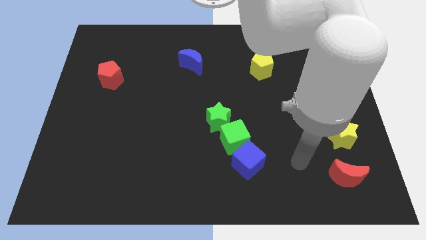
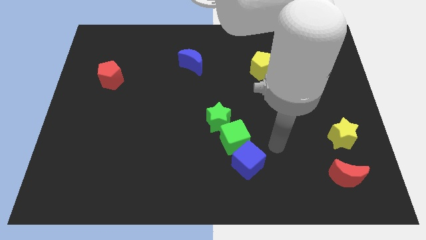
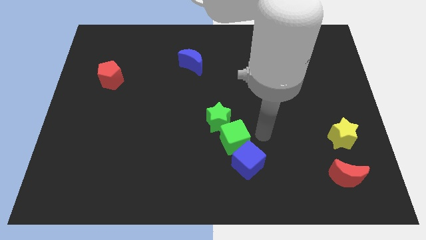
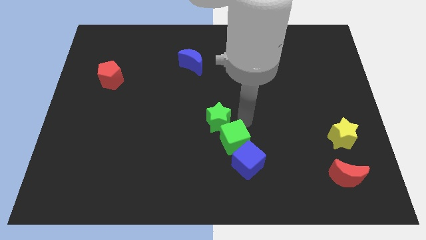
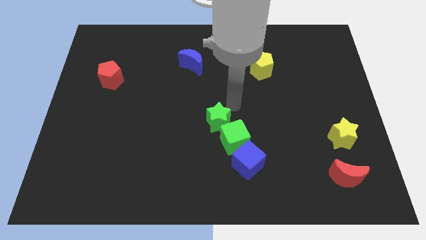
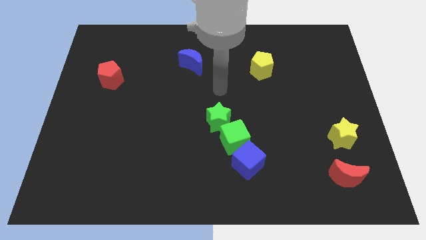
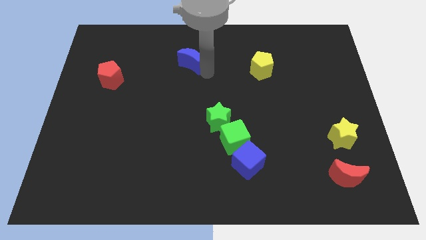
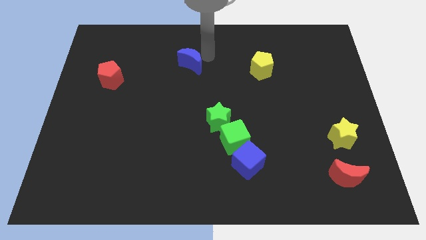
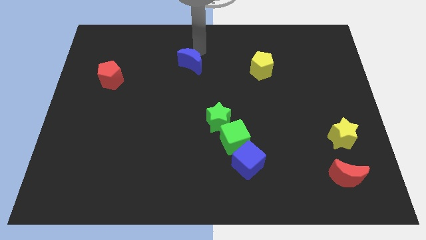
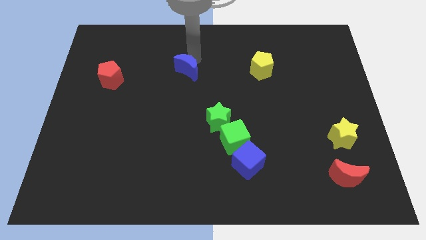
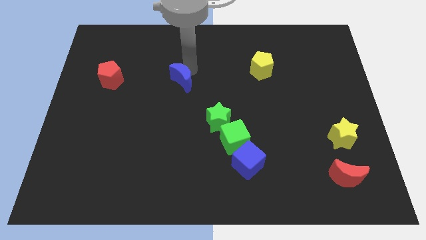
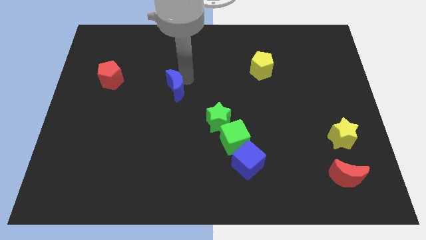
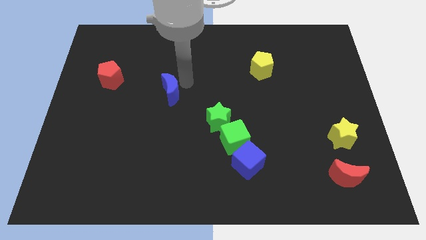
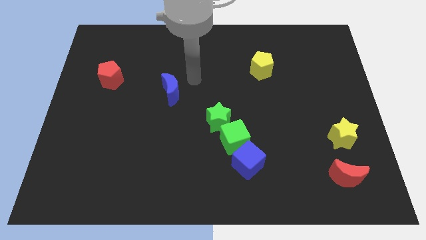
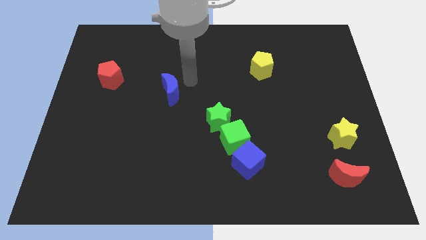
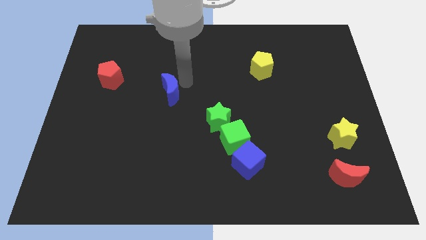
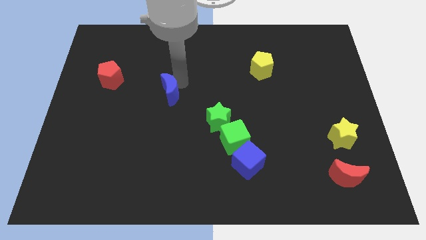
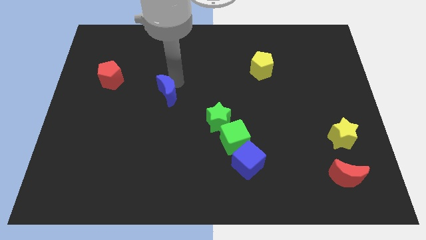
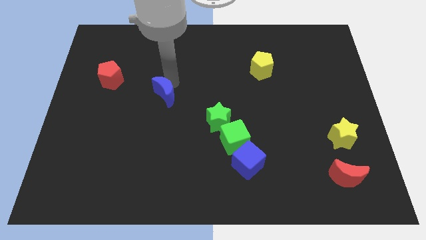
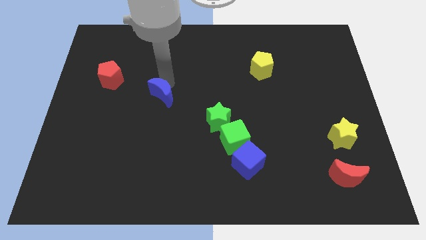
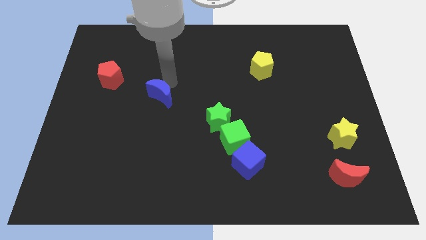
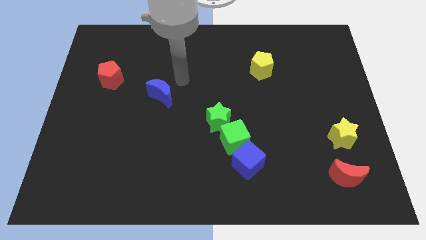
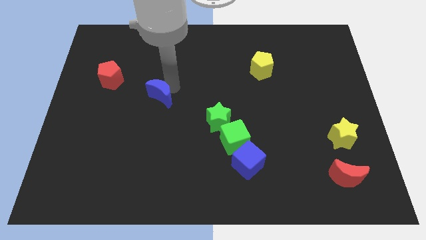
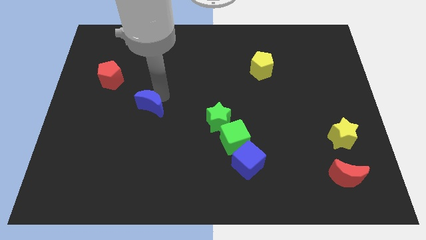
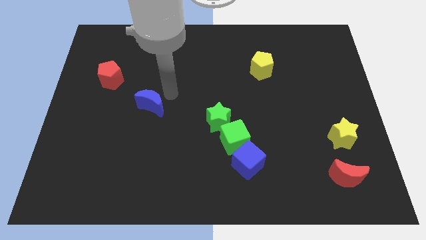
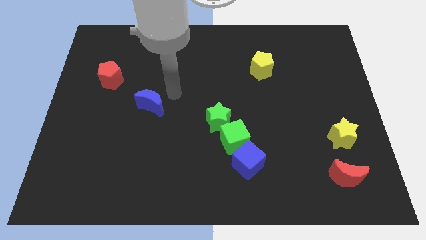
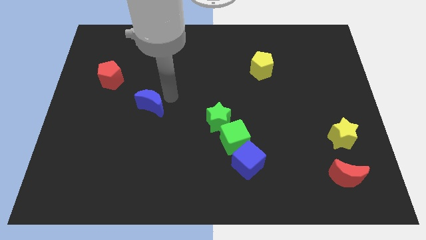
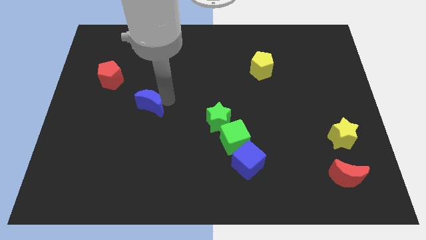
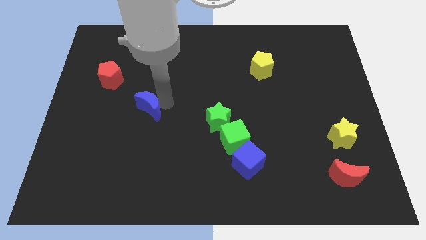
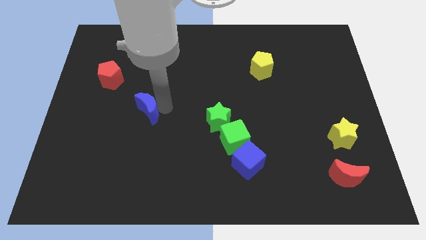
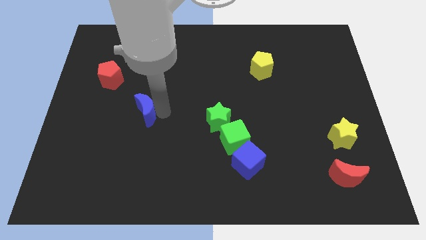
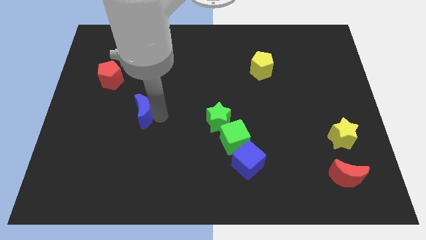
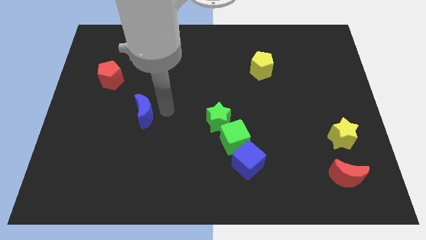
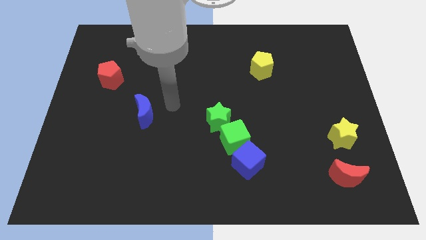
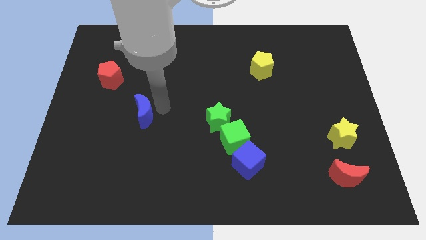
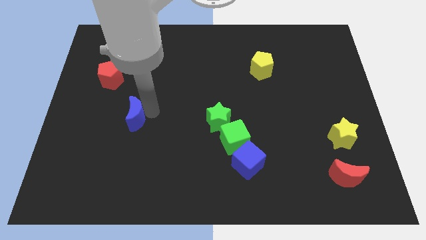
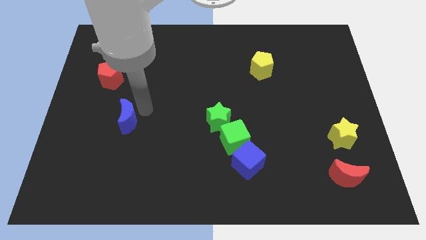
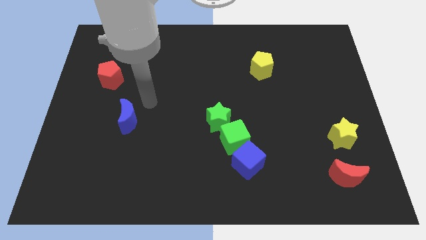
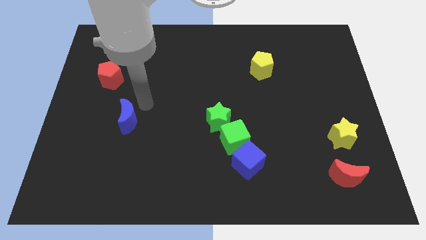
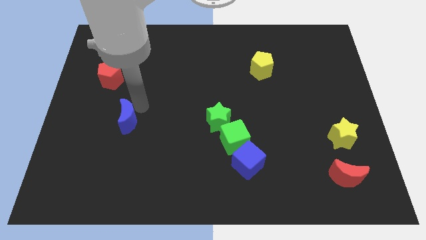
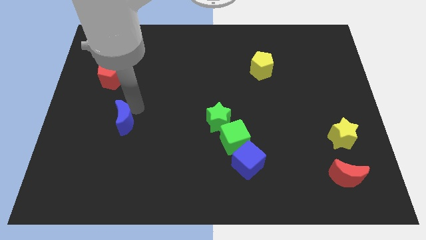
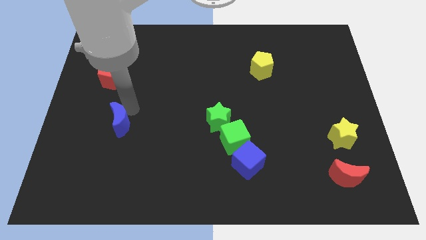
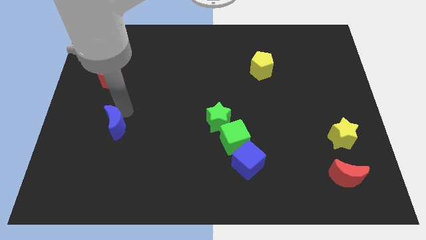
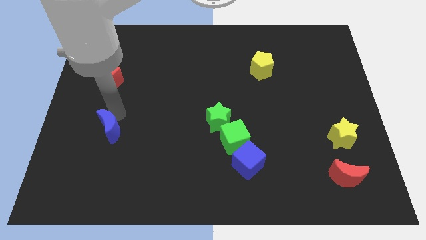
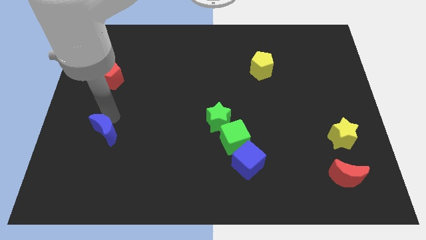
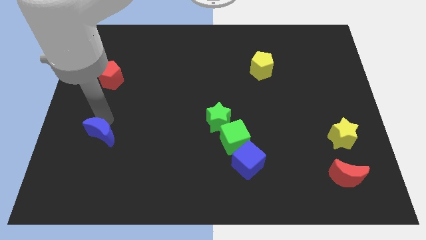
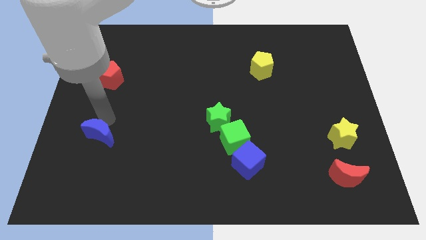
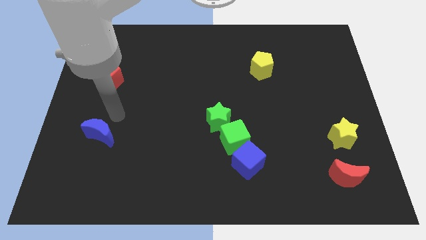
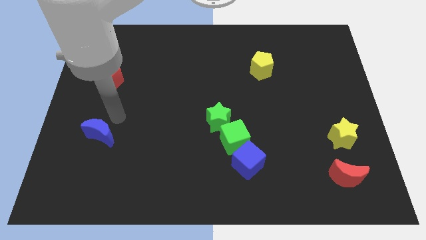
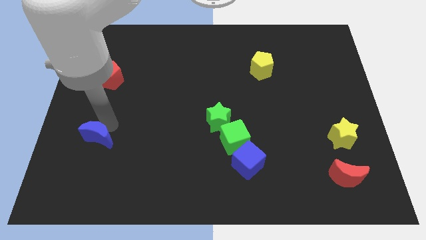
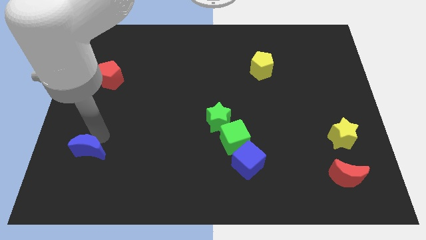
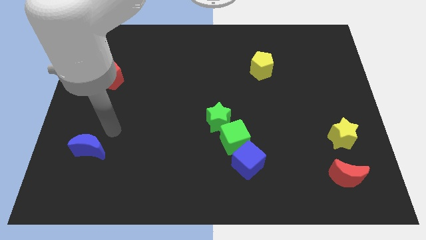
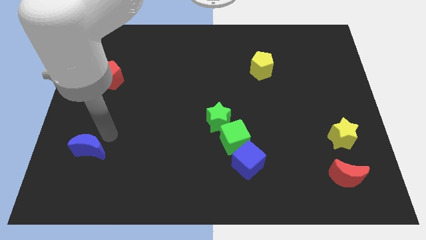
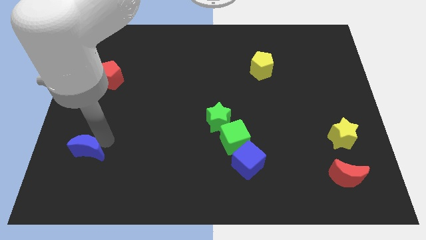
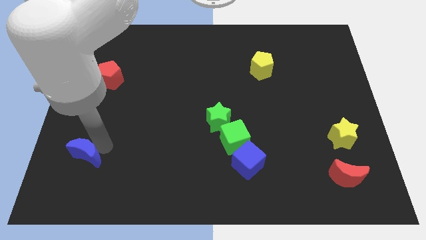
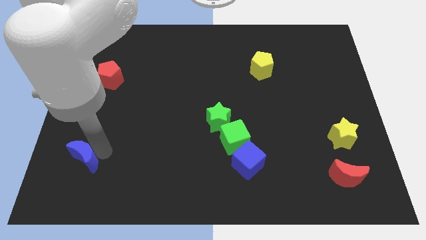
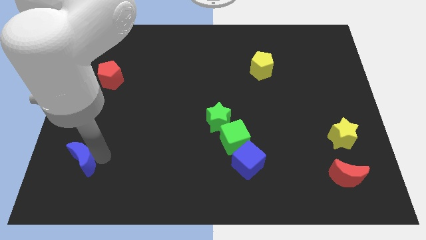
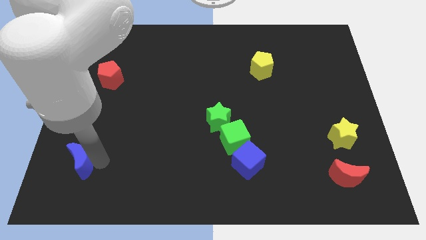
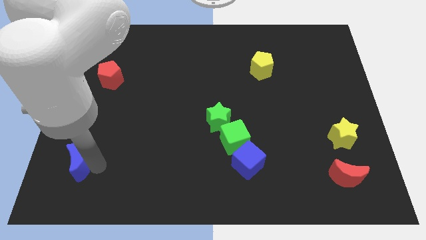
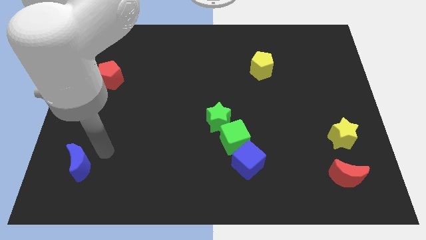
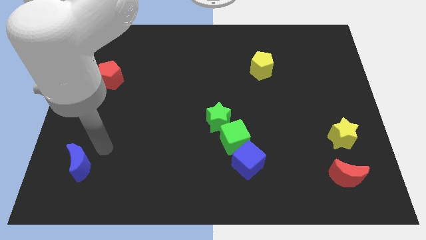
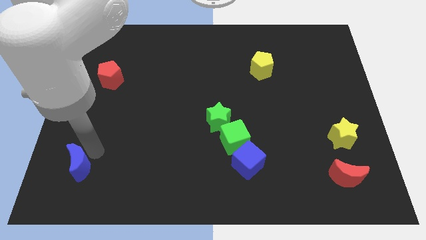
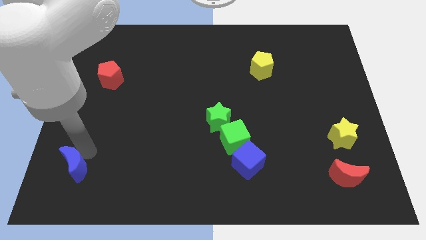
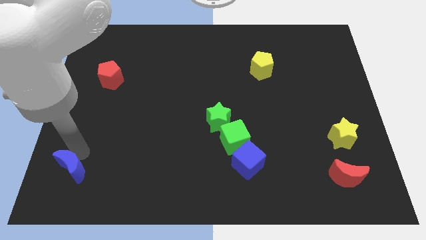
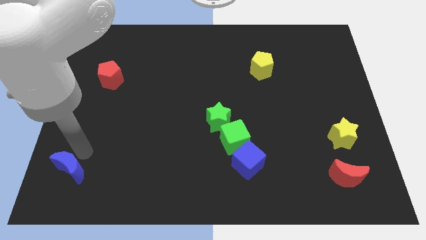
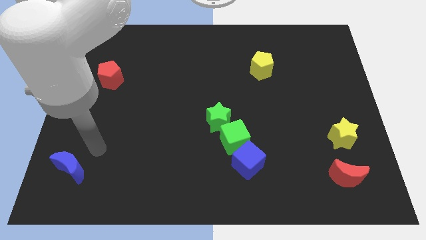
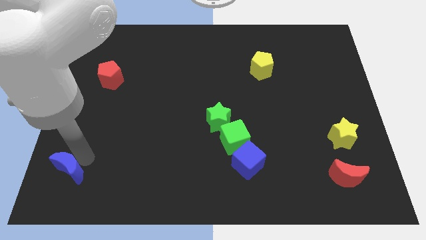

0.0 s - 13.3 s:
slide the blue moon to the bottom left

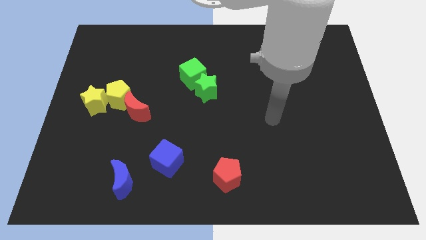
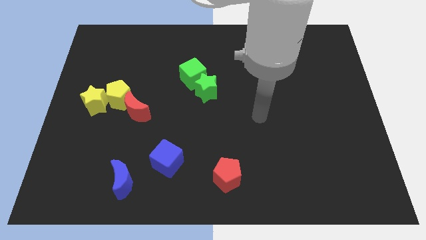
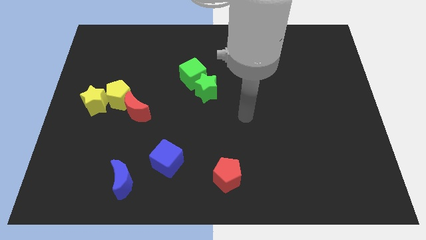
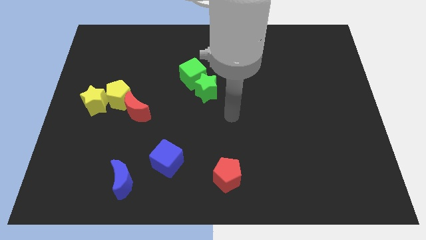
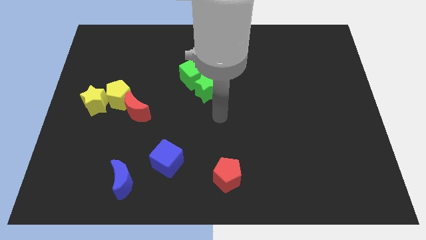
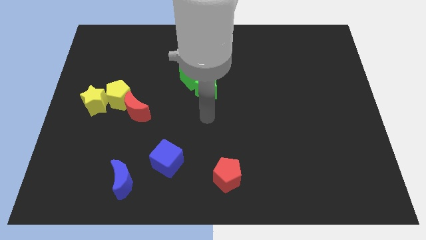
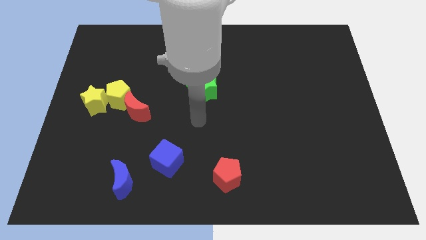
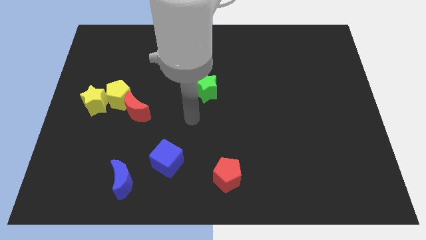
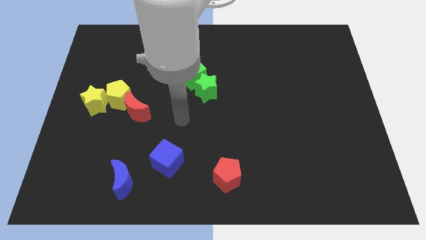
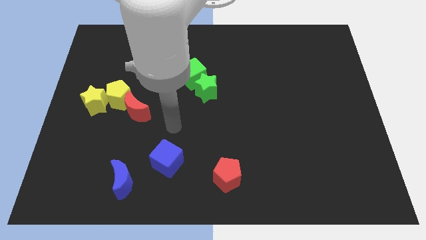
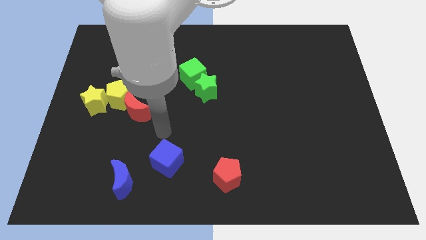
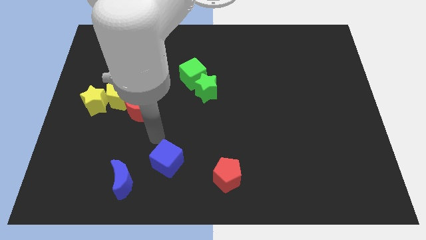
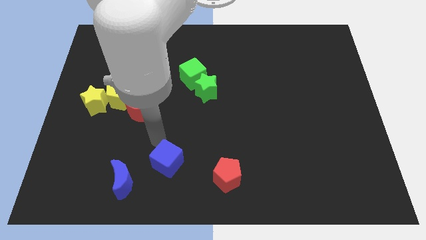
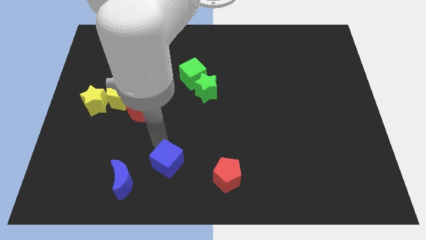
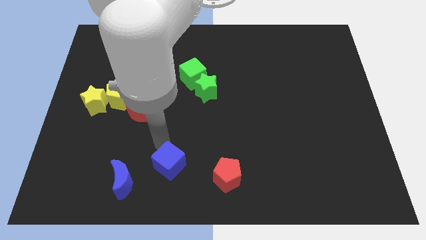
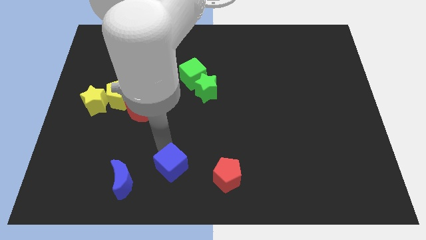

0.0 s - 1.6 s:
put the blue cube to the bottom
